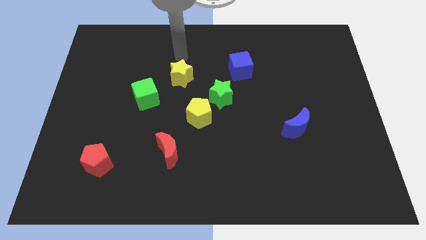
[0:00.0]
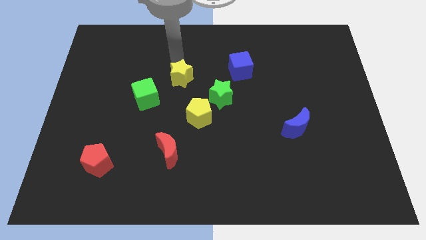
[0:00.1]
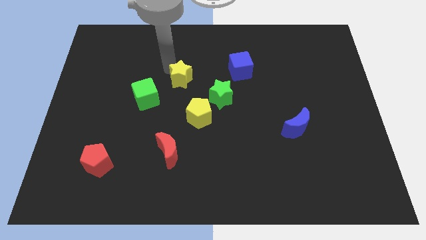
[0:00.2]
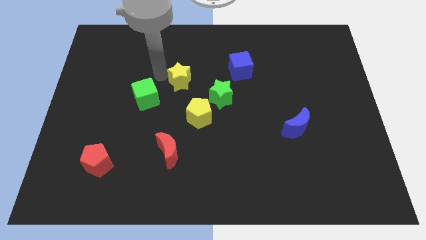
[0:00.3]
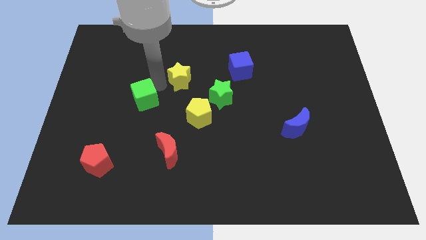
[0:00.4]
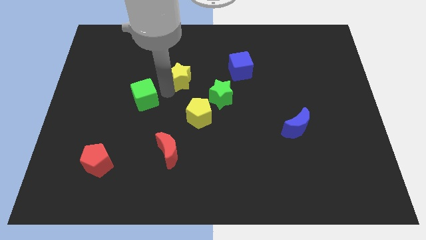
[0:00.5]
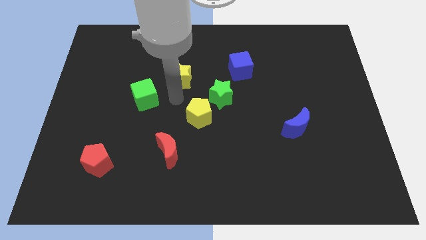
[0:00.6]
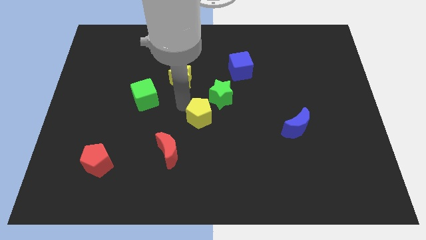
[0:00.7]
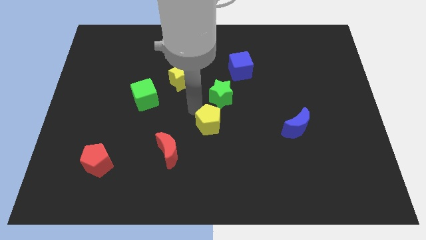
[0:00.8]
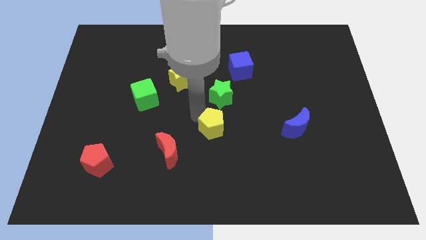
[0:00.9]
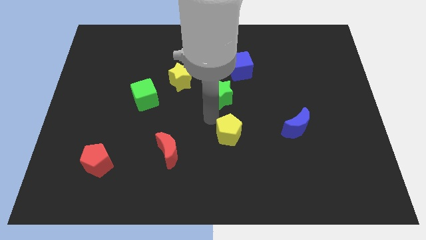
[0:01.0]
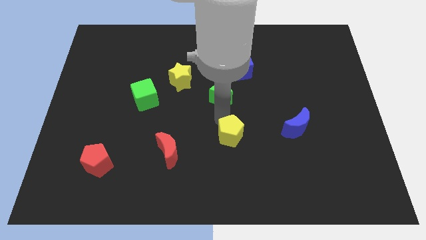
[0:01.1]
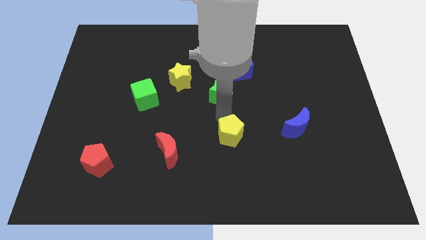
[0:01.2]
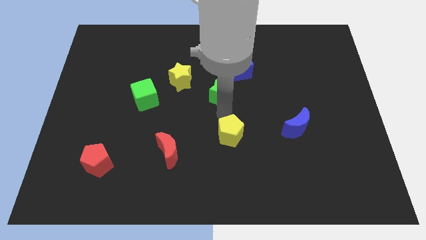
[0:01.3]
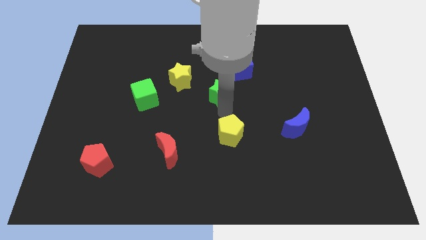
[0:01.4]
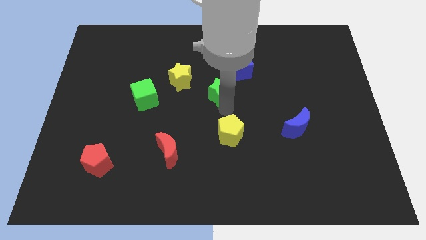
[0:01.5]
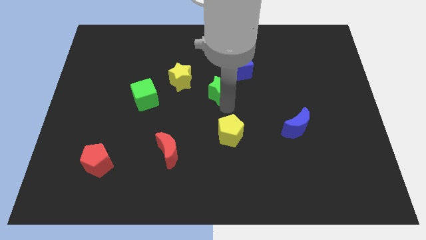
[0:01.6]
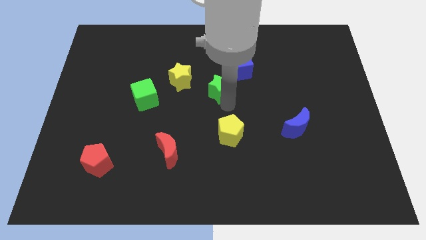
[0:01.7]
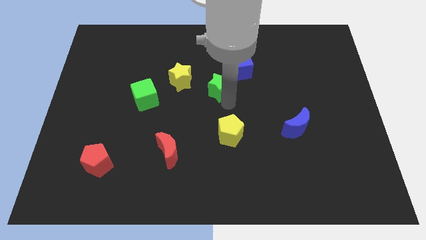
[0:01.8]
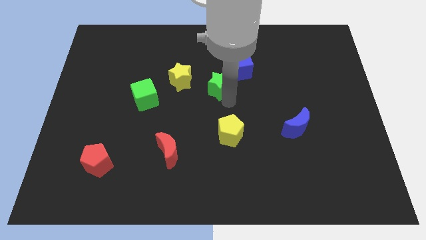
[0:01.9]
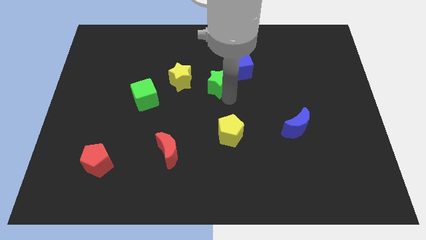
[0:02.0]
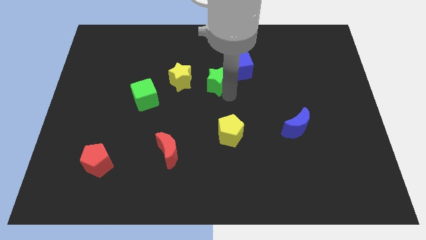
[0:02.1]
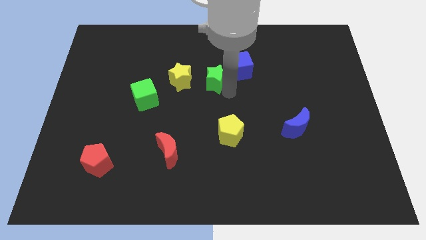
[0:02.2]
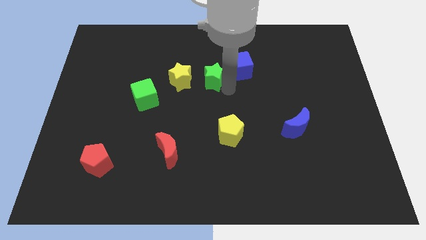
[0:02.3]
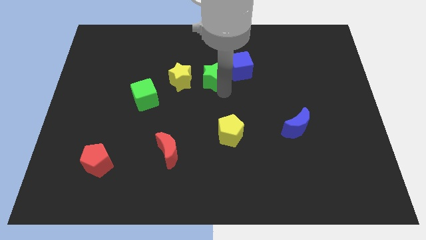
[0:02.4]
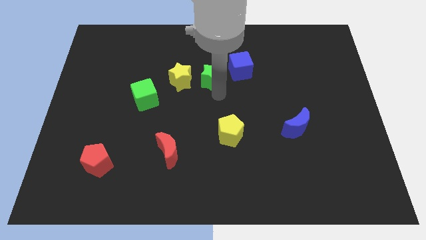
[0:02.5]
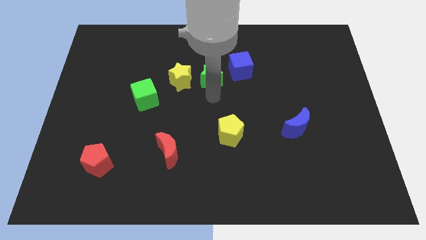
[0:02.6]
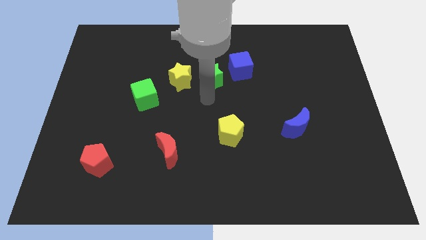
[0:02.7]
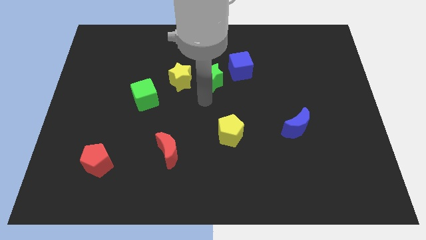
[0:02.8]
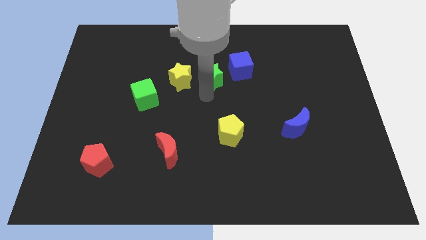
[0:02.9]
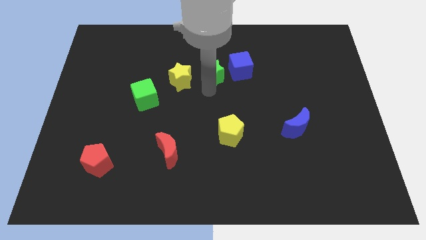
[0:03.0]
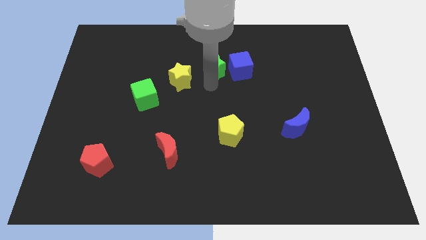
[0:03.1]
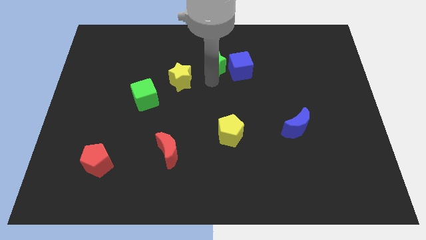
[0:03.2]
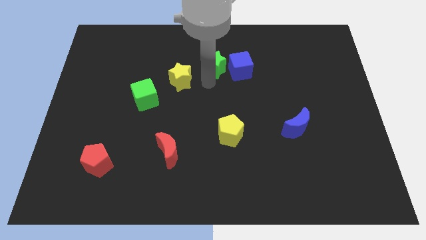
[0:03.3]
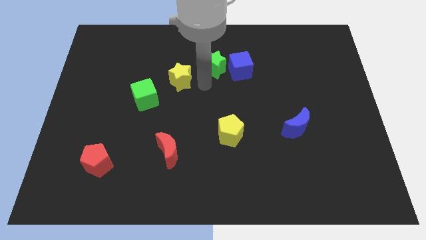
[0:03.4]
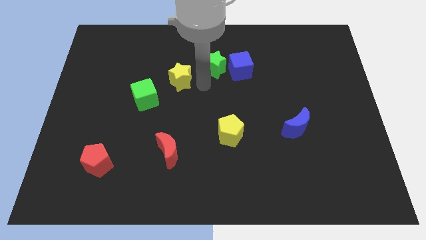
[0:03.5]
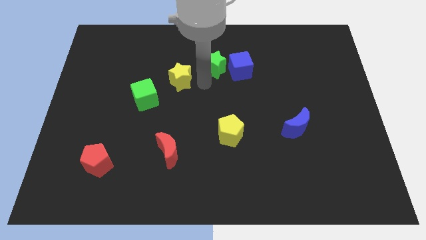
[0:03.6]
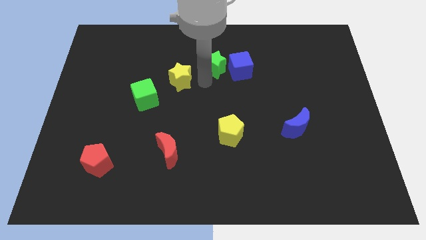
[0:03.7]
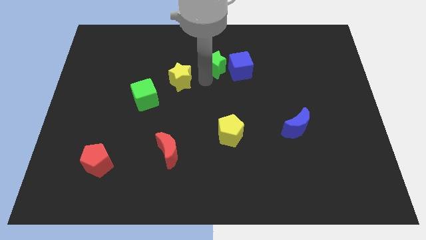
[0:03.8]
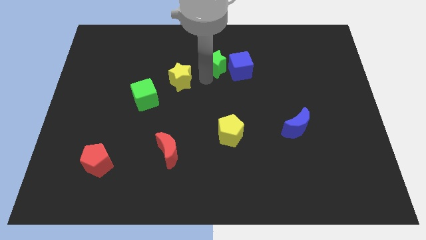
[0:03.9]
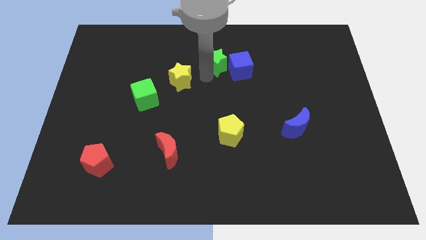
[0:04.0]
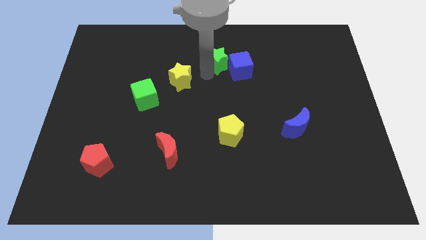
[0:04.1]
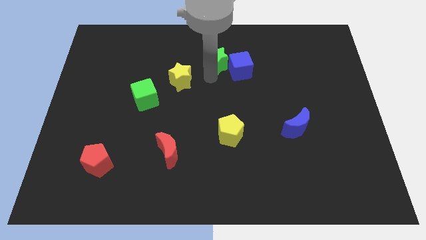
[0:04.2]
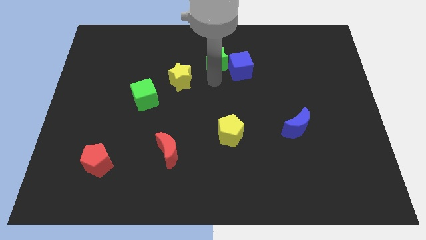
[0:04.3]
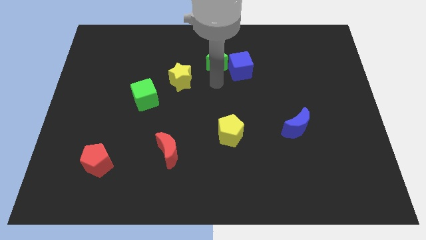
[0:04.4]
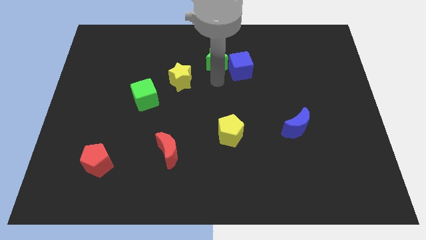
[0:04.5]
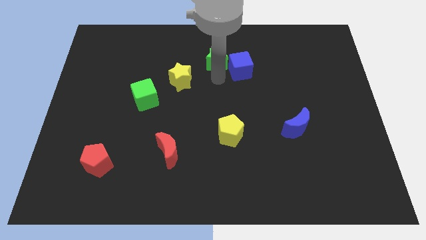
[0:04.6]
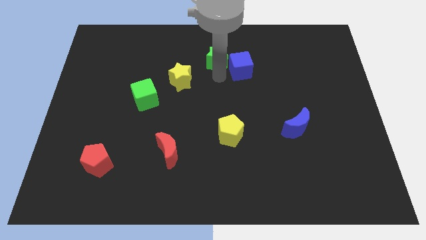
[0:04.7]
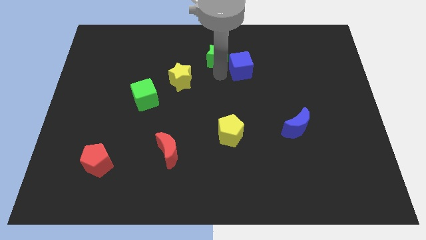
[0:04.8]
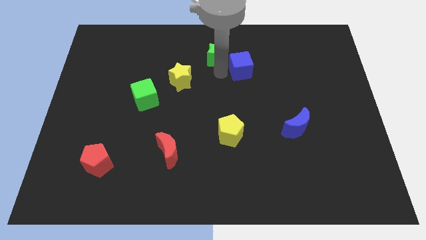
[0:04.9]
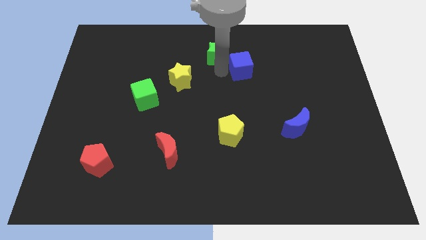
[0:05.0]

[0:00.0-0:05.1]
push the green star to the top side
